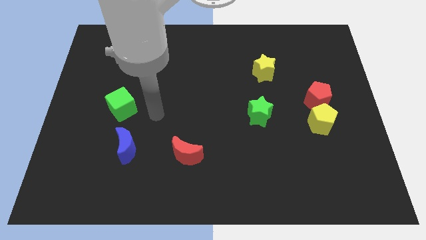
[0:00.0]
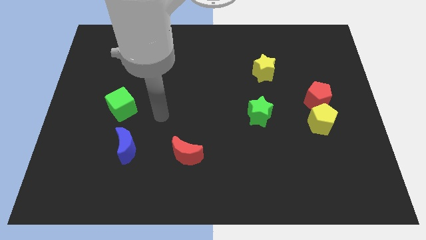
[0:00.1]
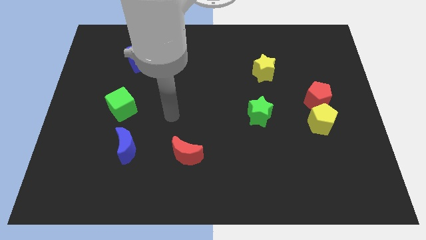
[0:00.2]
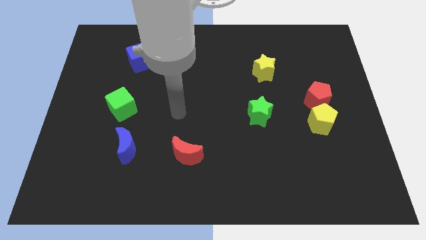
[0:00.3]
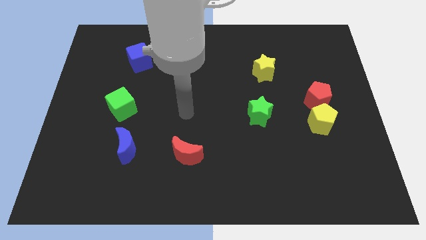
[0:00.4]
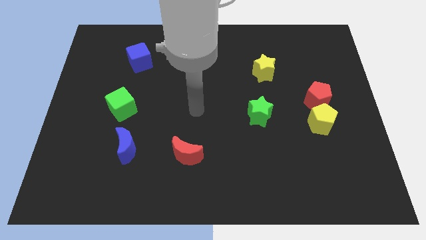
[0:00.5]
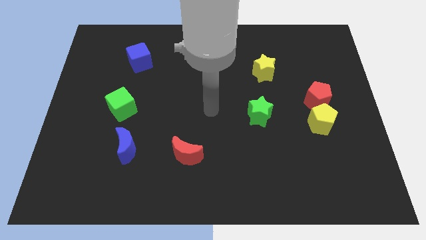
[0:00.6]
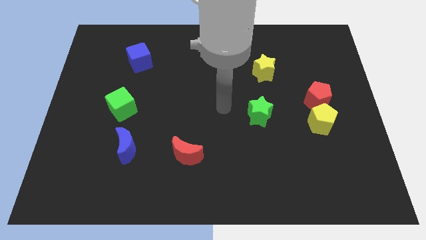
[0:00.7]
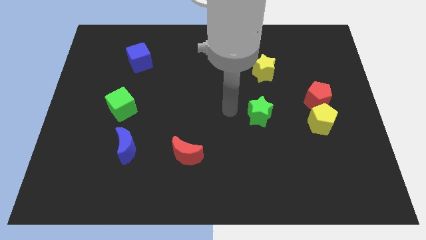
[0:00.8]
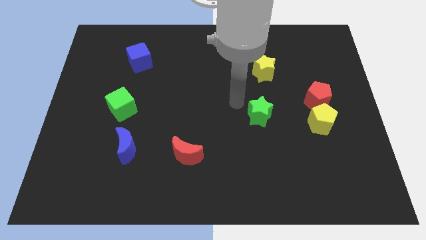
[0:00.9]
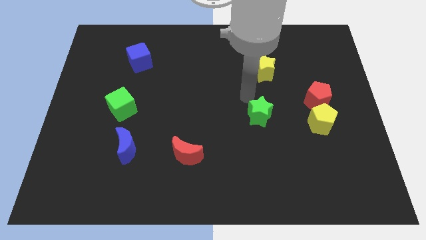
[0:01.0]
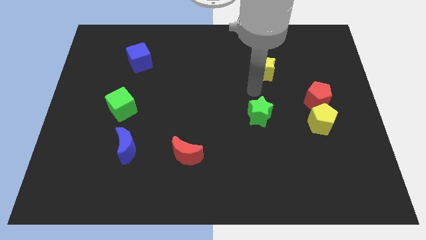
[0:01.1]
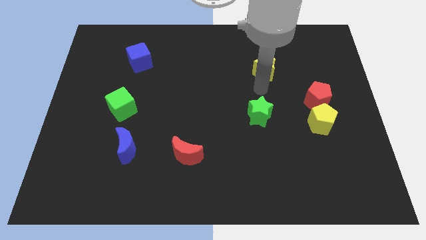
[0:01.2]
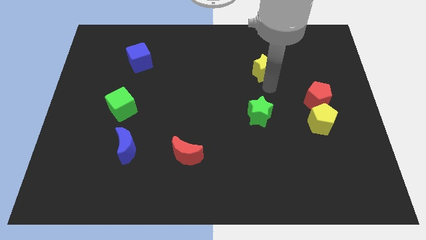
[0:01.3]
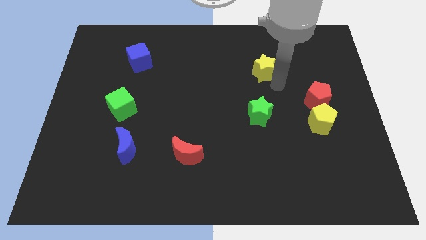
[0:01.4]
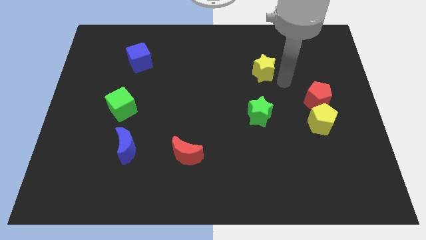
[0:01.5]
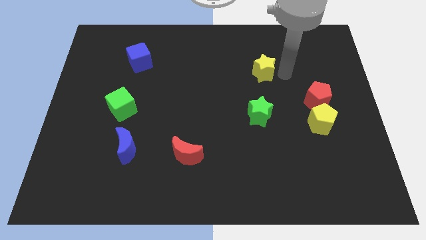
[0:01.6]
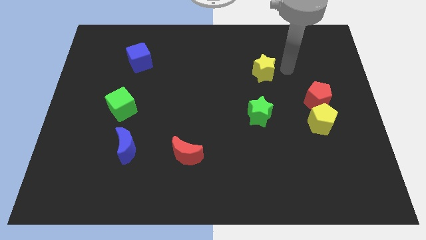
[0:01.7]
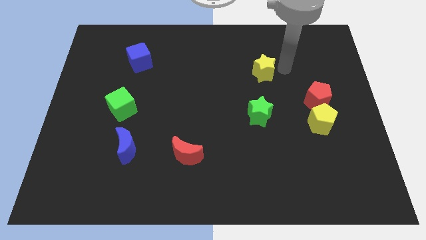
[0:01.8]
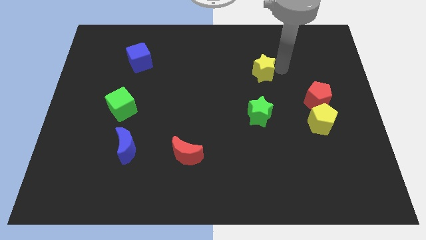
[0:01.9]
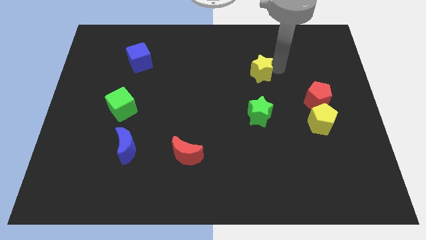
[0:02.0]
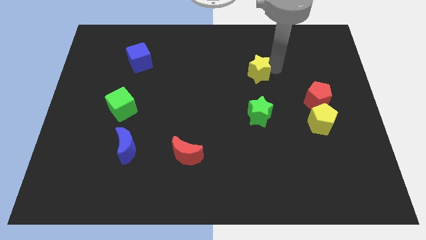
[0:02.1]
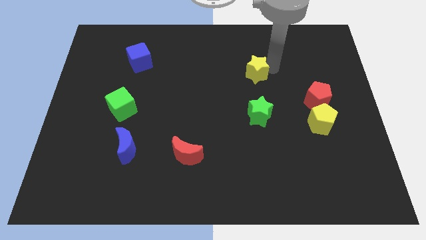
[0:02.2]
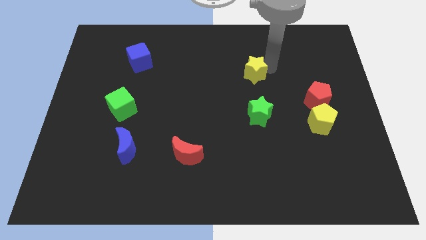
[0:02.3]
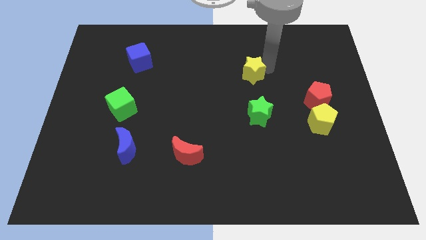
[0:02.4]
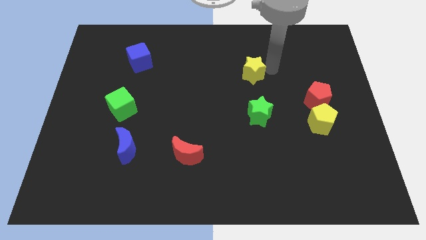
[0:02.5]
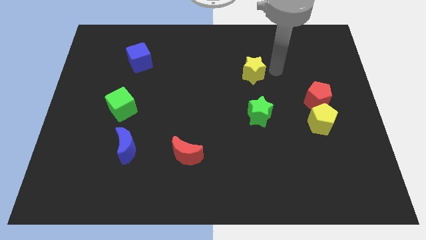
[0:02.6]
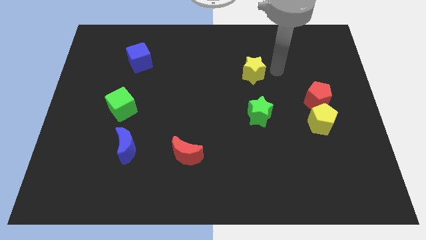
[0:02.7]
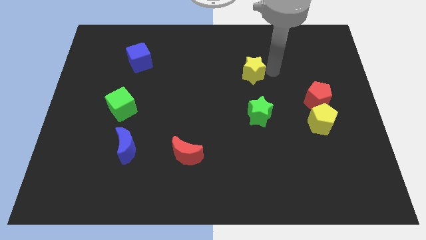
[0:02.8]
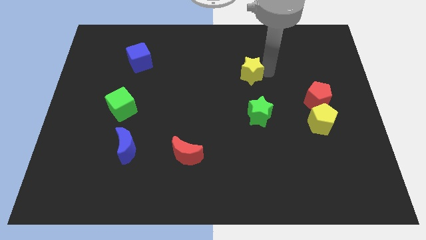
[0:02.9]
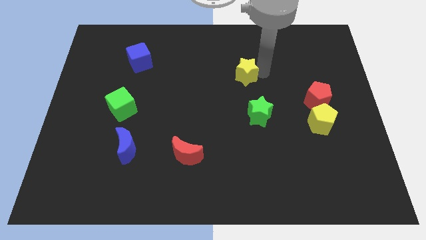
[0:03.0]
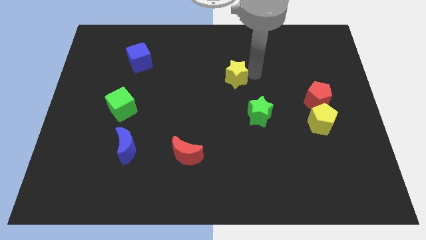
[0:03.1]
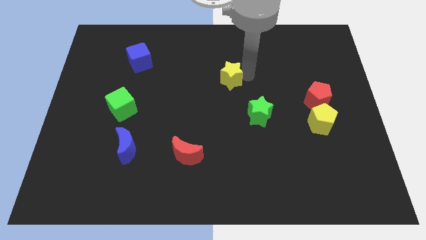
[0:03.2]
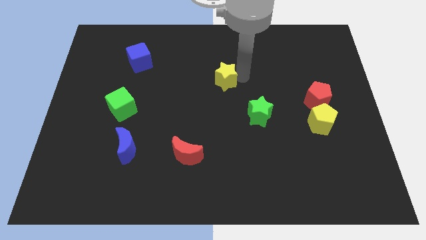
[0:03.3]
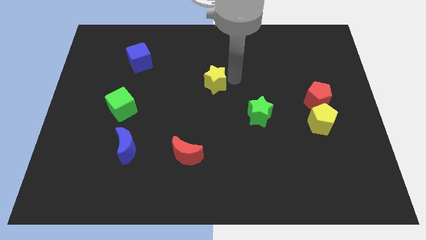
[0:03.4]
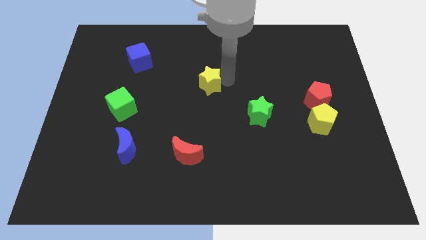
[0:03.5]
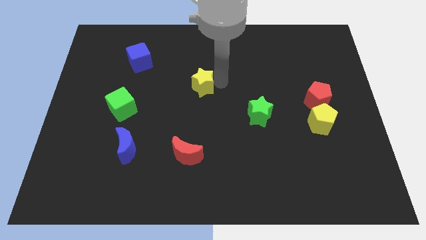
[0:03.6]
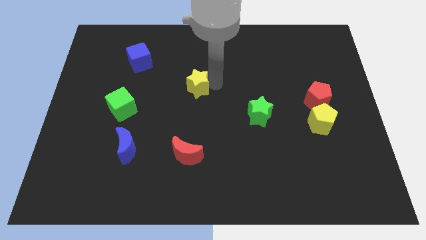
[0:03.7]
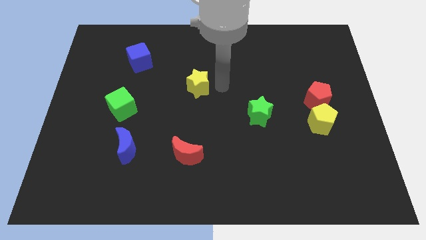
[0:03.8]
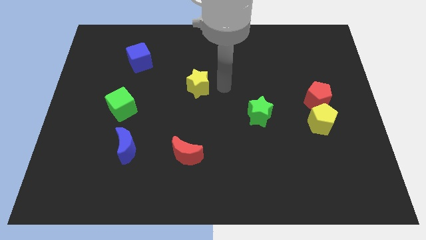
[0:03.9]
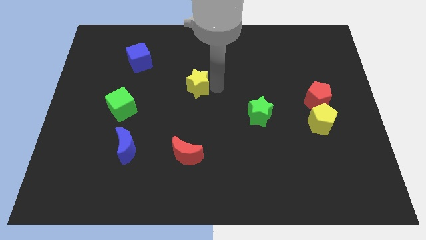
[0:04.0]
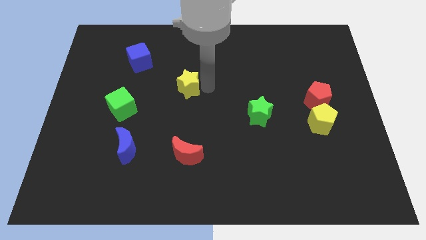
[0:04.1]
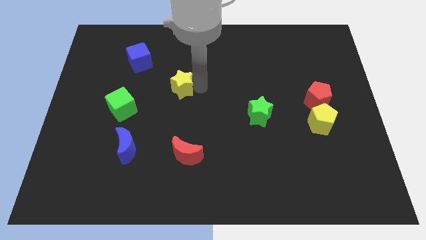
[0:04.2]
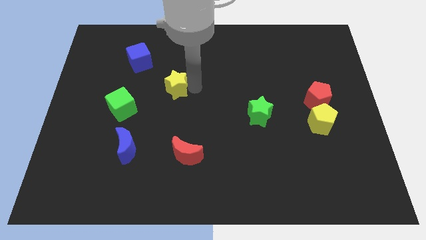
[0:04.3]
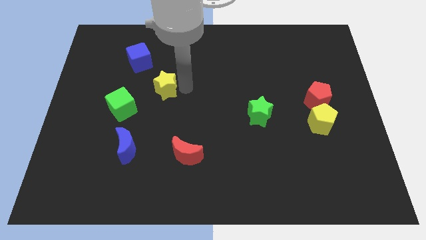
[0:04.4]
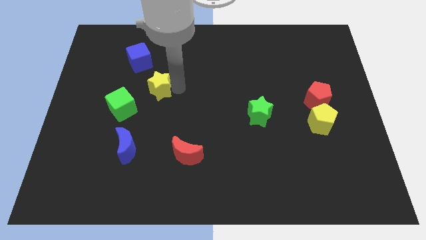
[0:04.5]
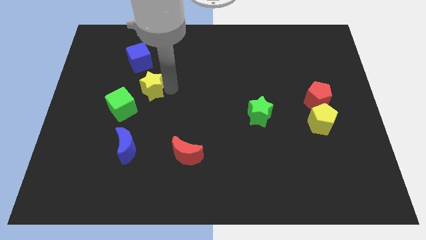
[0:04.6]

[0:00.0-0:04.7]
move the yellow star to the bottom side of the blue cube

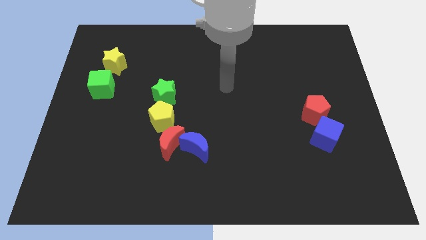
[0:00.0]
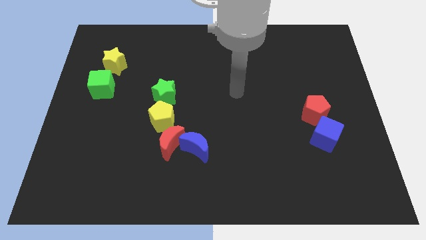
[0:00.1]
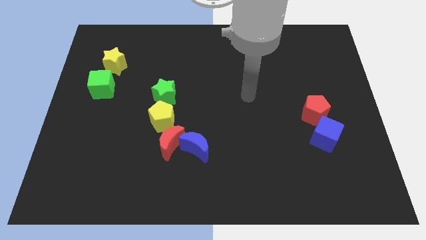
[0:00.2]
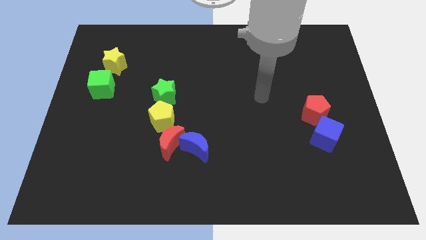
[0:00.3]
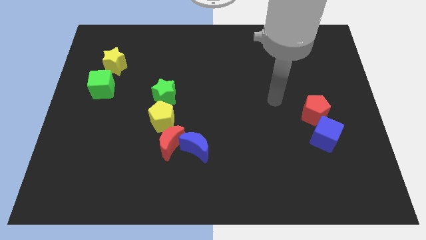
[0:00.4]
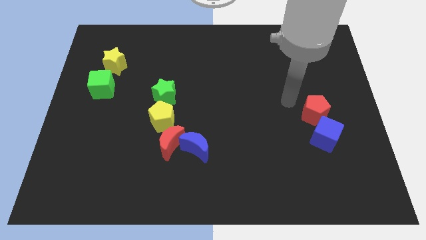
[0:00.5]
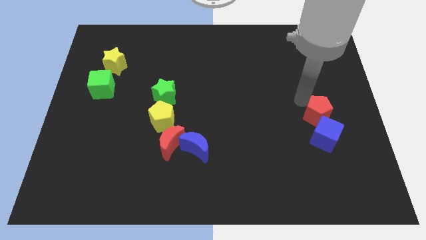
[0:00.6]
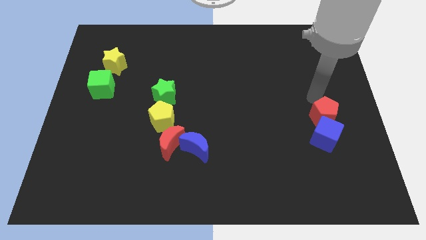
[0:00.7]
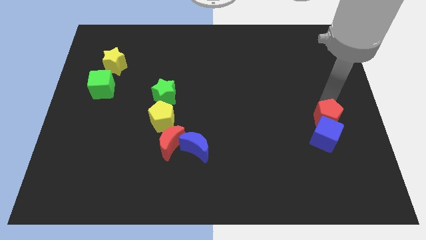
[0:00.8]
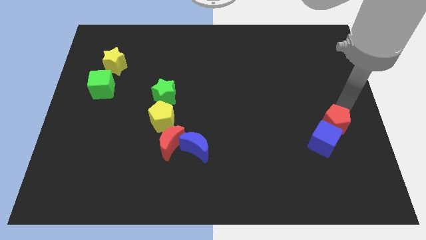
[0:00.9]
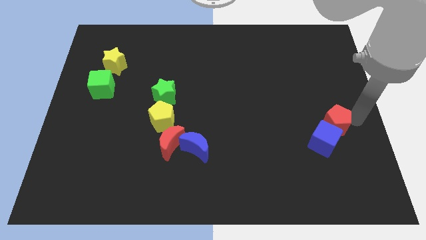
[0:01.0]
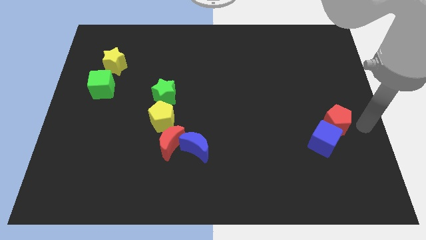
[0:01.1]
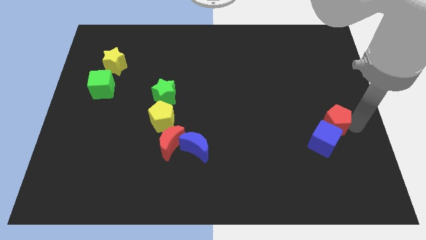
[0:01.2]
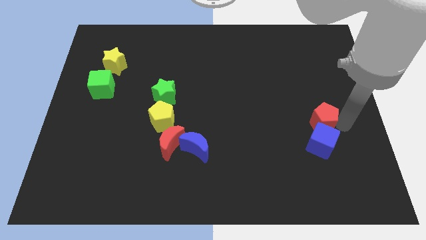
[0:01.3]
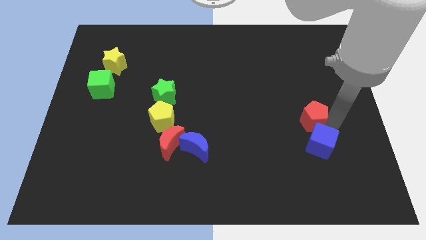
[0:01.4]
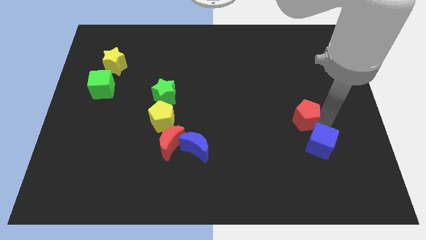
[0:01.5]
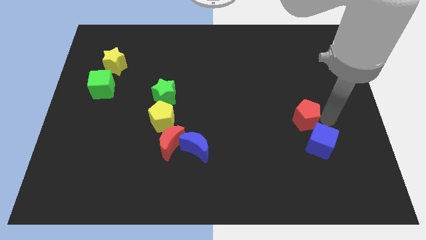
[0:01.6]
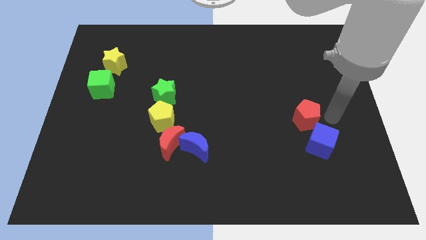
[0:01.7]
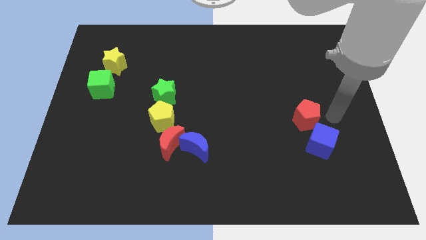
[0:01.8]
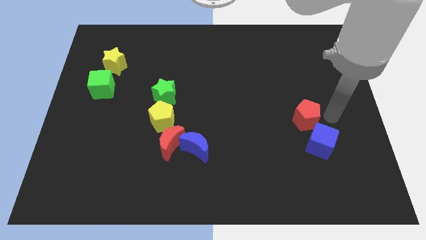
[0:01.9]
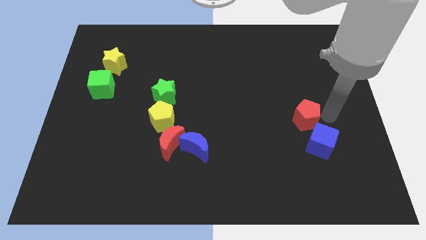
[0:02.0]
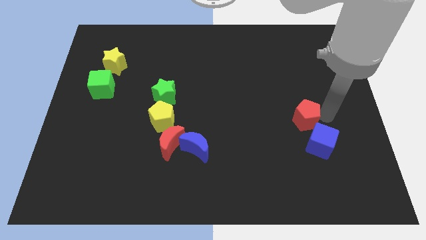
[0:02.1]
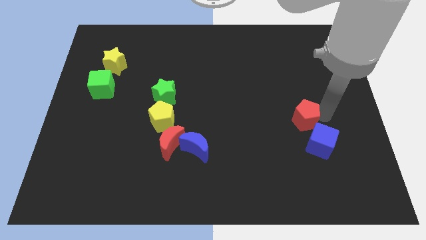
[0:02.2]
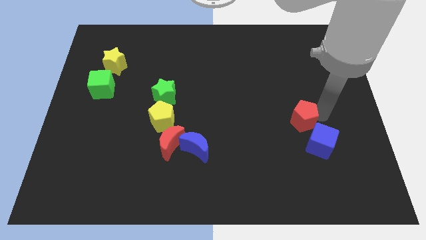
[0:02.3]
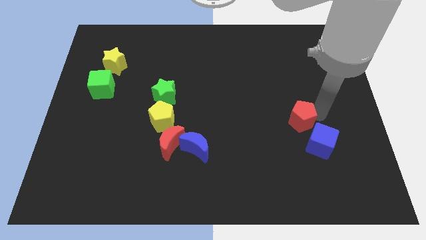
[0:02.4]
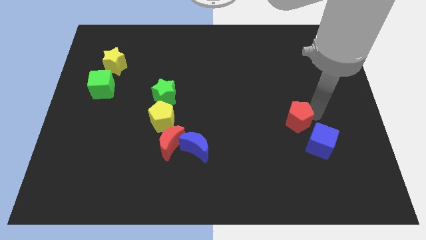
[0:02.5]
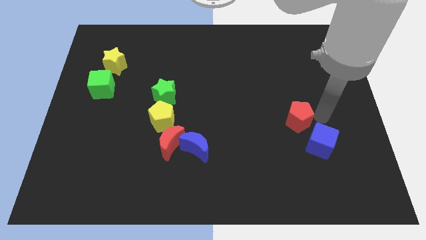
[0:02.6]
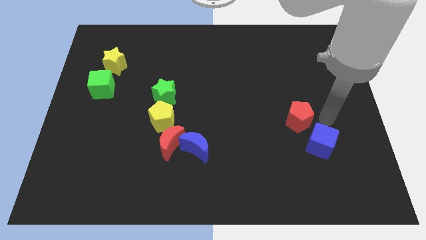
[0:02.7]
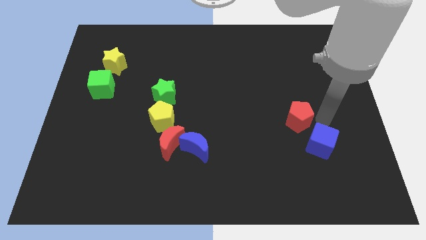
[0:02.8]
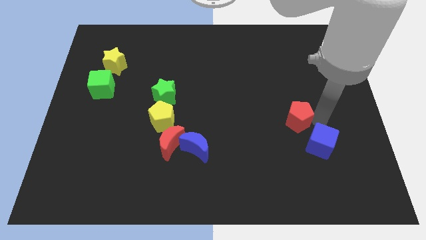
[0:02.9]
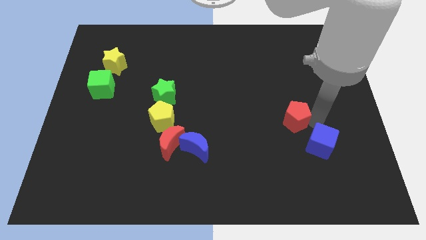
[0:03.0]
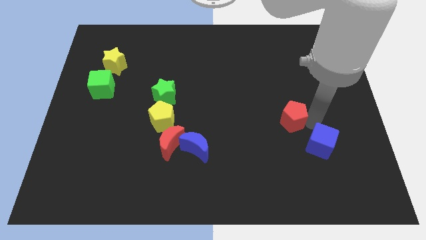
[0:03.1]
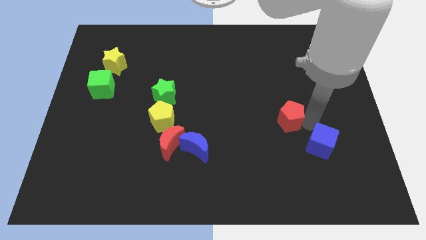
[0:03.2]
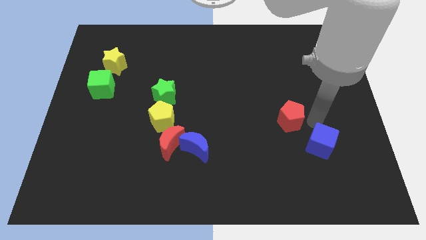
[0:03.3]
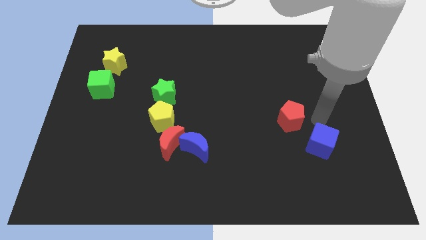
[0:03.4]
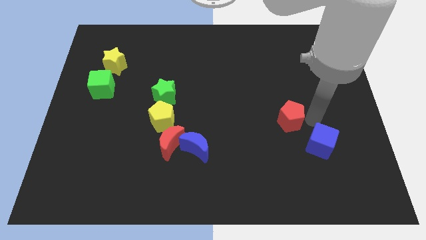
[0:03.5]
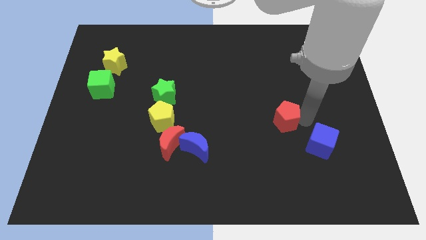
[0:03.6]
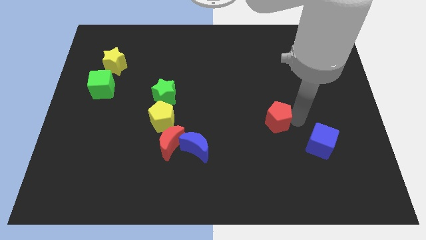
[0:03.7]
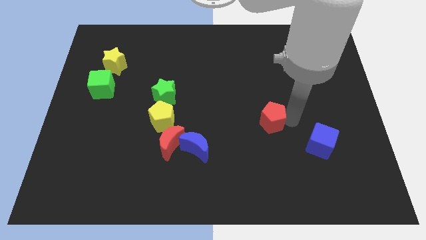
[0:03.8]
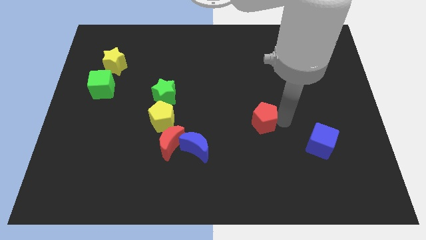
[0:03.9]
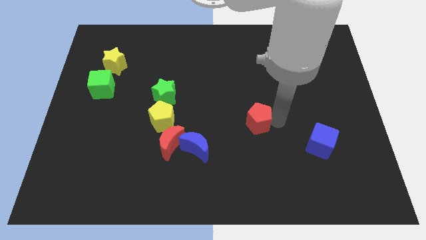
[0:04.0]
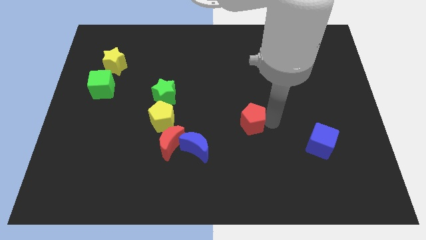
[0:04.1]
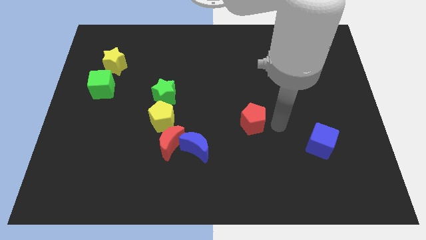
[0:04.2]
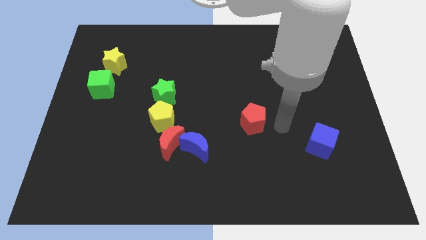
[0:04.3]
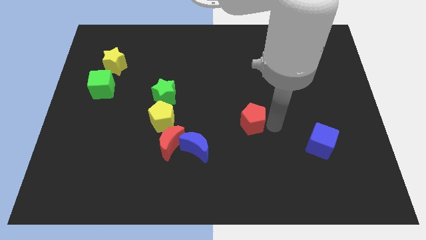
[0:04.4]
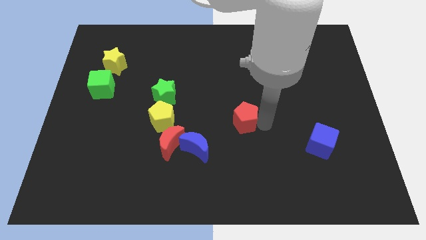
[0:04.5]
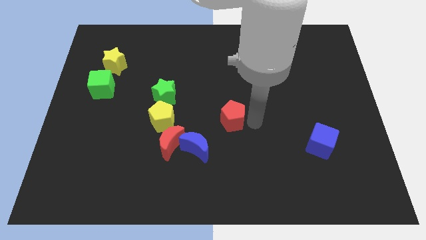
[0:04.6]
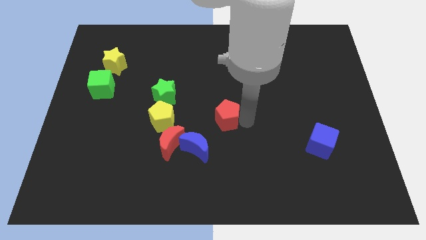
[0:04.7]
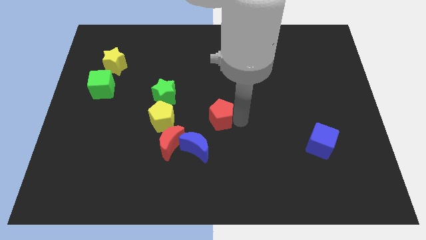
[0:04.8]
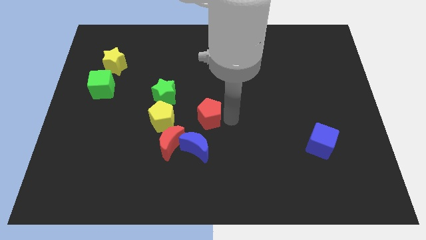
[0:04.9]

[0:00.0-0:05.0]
push the red pentagon diagonally down and to the right of the green star
